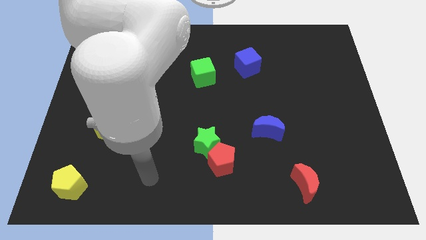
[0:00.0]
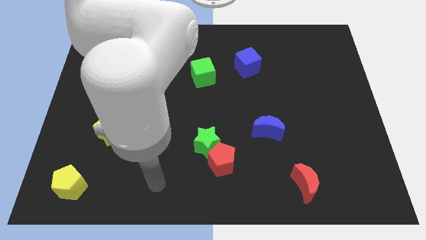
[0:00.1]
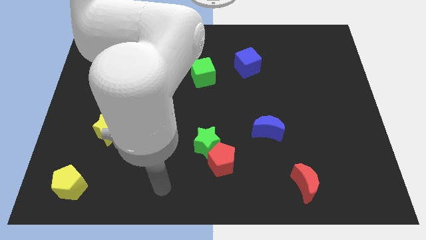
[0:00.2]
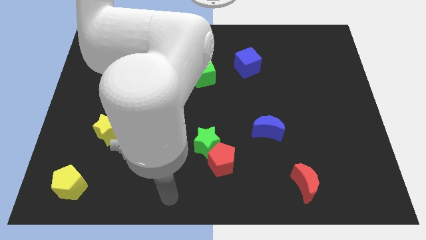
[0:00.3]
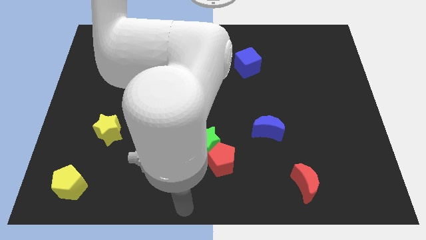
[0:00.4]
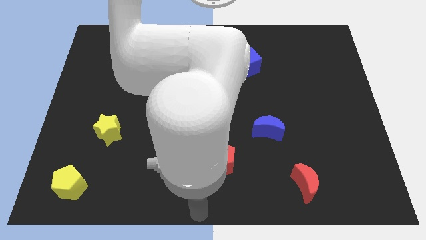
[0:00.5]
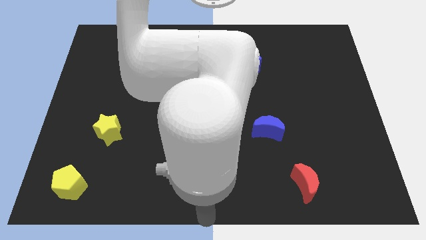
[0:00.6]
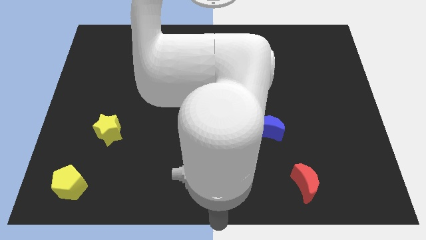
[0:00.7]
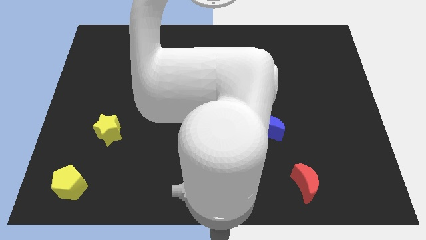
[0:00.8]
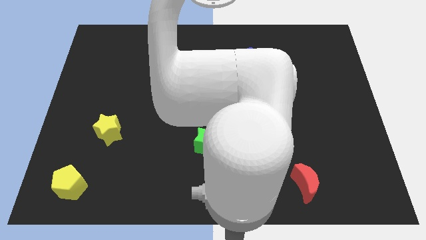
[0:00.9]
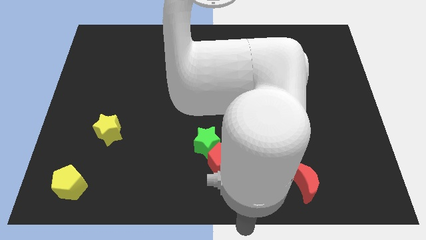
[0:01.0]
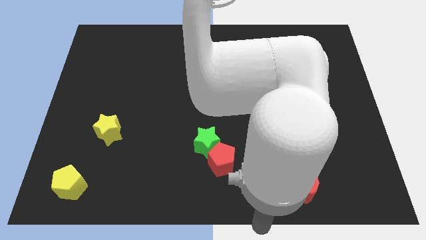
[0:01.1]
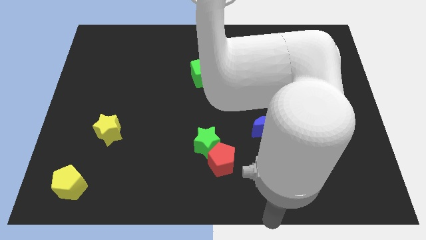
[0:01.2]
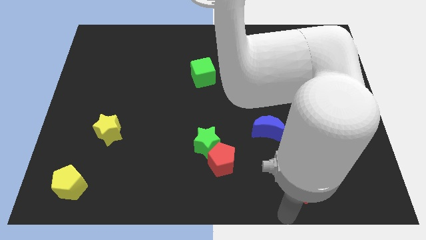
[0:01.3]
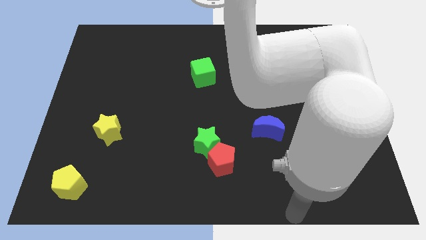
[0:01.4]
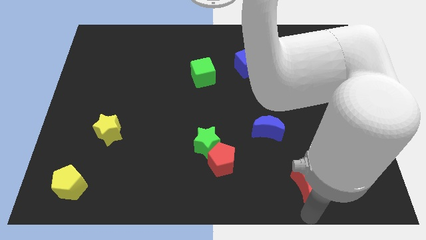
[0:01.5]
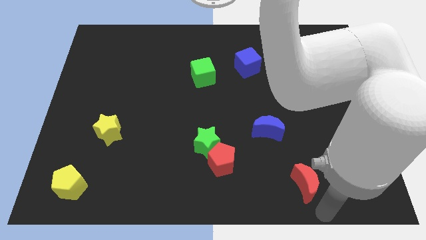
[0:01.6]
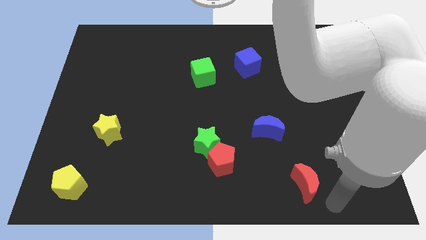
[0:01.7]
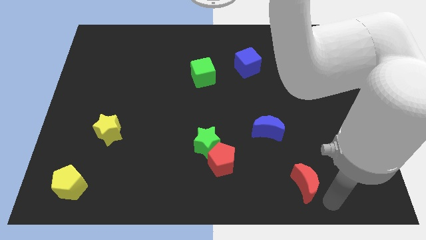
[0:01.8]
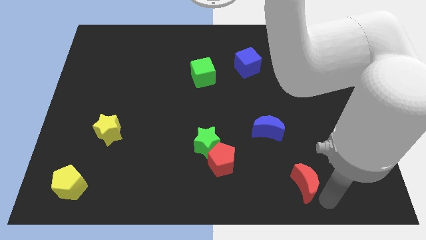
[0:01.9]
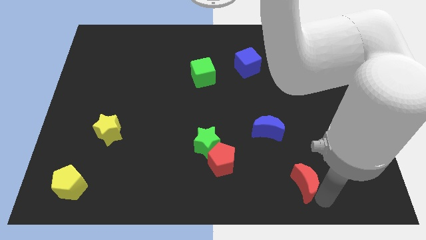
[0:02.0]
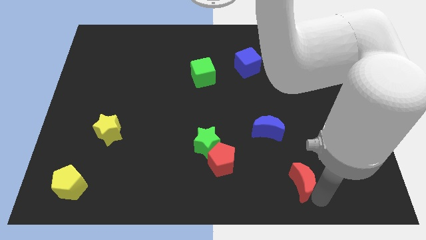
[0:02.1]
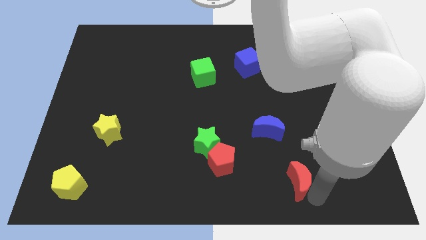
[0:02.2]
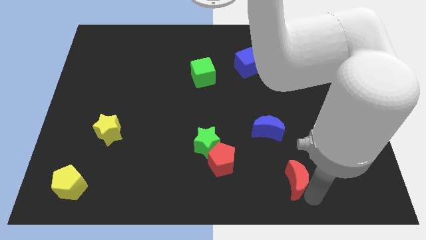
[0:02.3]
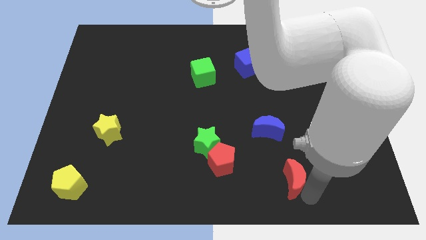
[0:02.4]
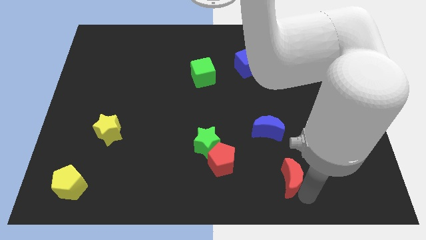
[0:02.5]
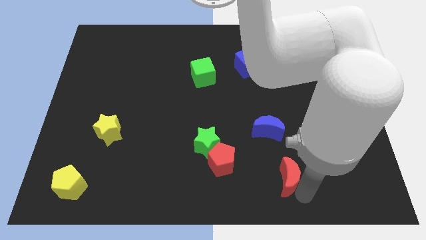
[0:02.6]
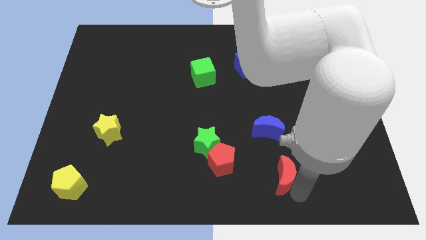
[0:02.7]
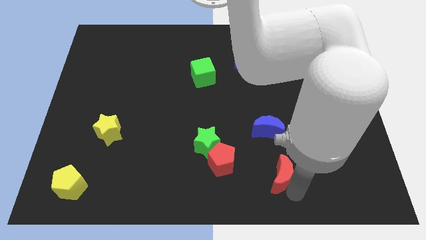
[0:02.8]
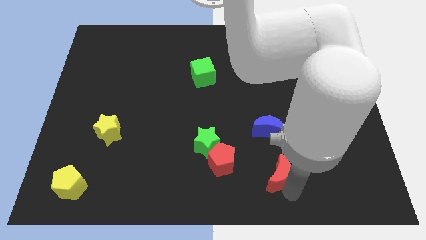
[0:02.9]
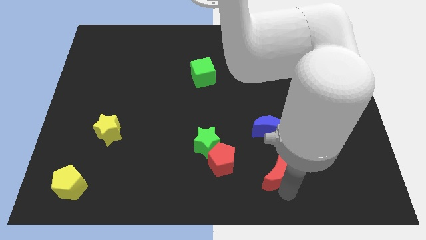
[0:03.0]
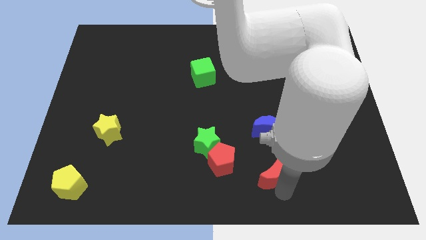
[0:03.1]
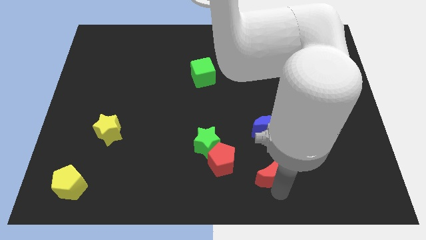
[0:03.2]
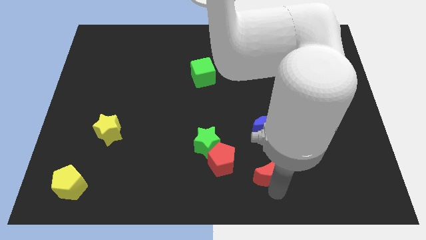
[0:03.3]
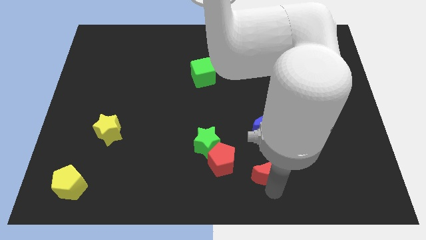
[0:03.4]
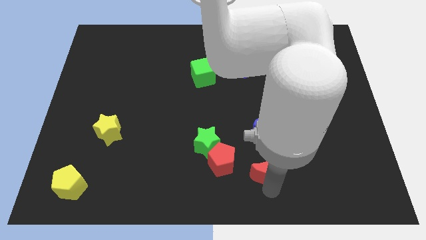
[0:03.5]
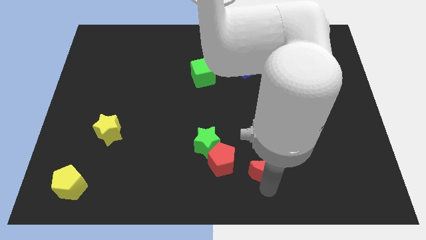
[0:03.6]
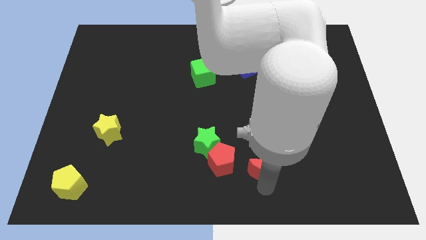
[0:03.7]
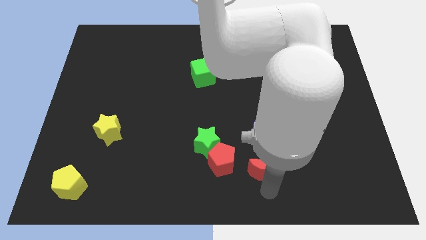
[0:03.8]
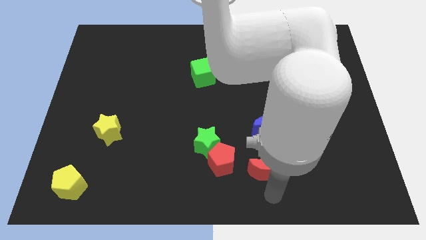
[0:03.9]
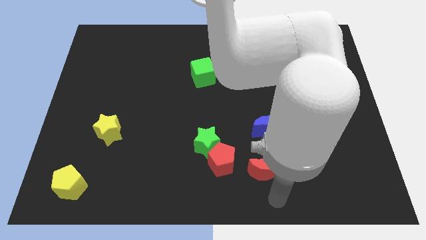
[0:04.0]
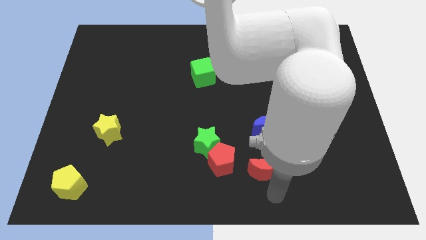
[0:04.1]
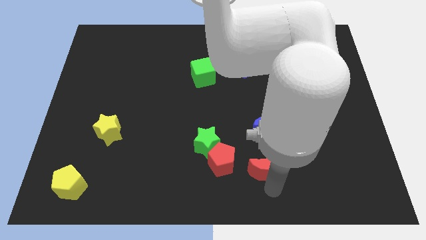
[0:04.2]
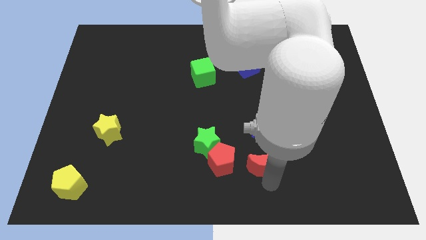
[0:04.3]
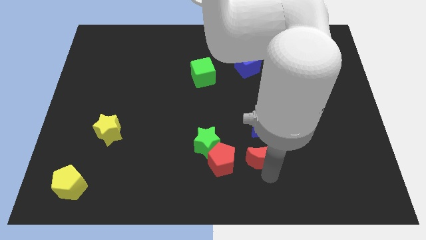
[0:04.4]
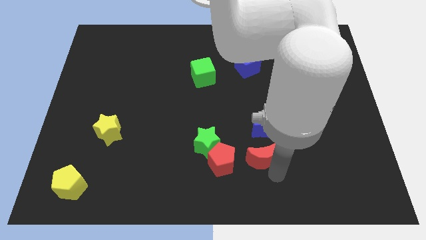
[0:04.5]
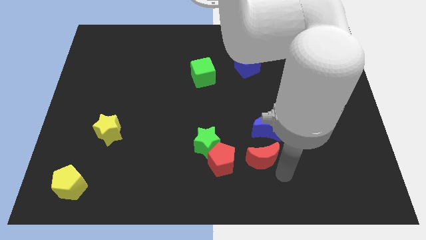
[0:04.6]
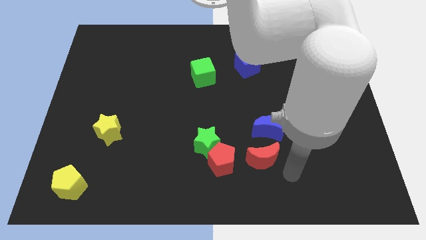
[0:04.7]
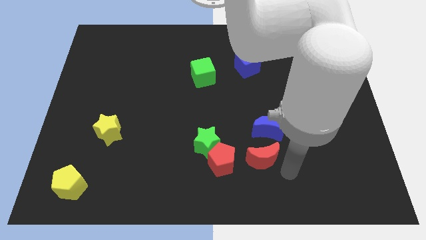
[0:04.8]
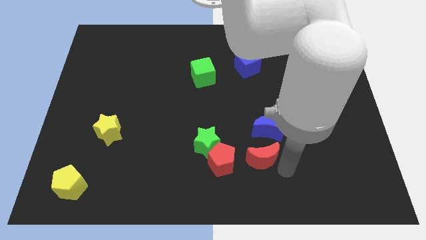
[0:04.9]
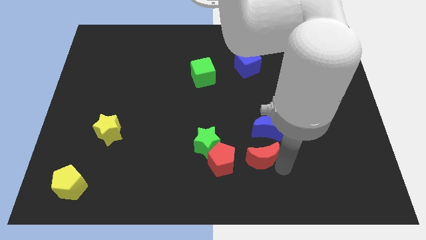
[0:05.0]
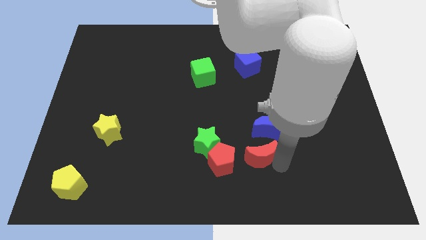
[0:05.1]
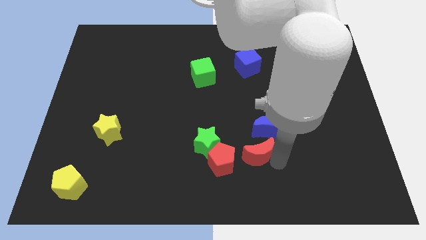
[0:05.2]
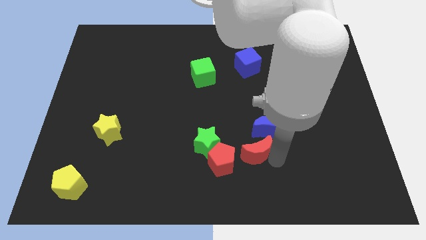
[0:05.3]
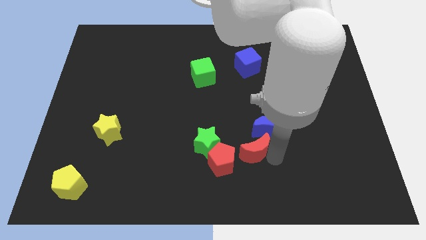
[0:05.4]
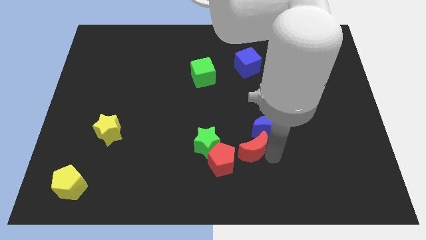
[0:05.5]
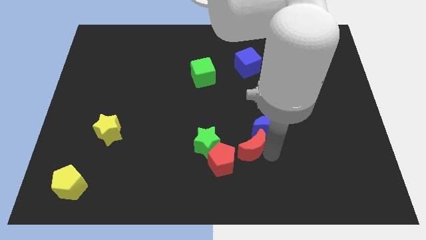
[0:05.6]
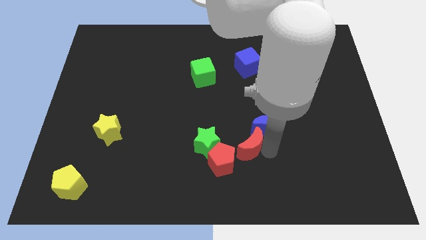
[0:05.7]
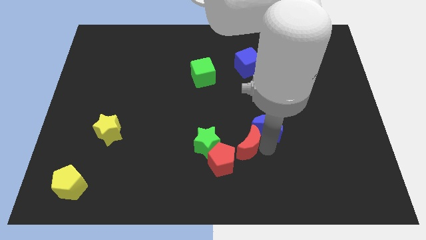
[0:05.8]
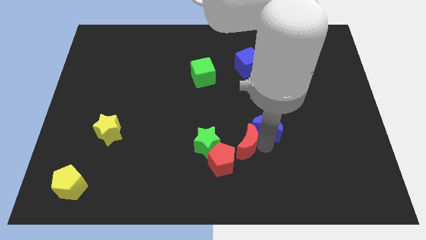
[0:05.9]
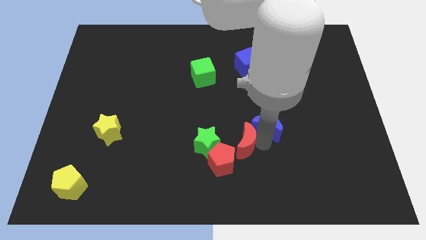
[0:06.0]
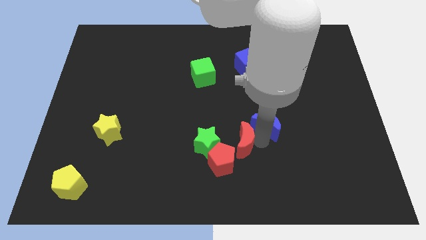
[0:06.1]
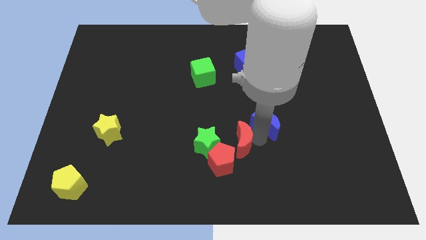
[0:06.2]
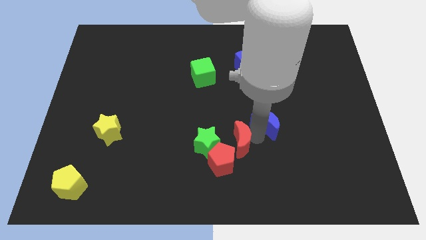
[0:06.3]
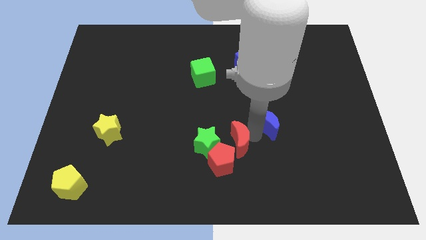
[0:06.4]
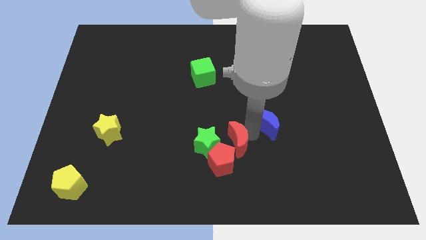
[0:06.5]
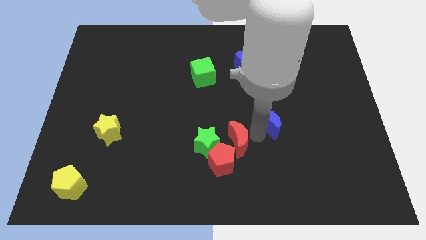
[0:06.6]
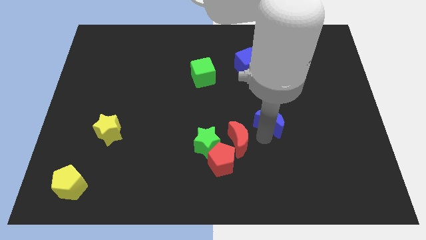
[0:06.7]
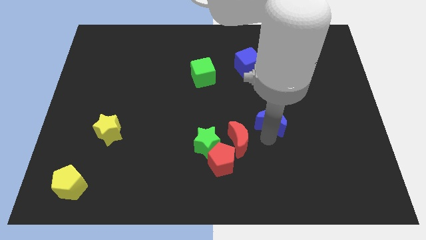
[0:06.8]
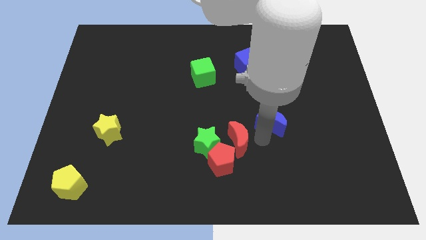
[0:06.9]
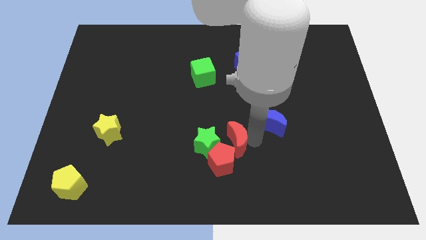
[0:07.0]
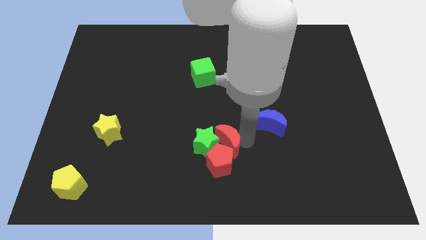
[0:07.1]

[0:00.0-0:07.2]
put the red moon next to the green star

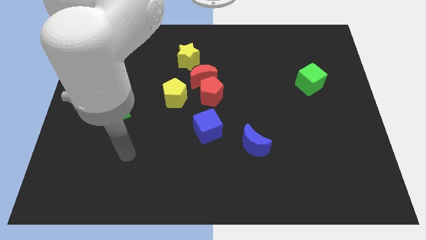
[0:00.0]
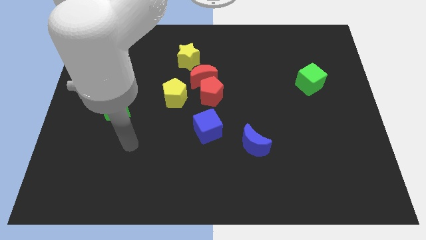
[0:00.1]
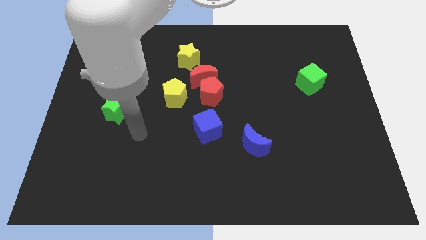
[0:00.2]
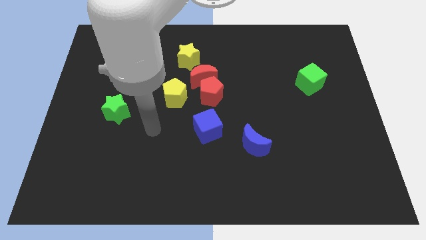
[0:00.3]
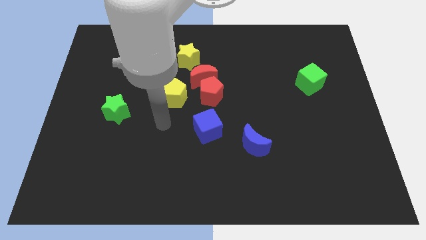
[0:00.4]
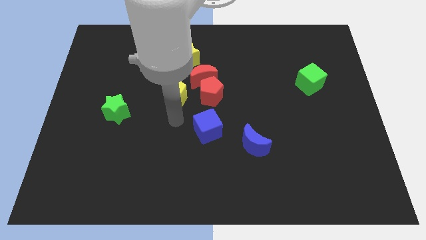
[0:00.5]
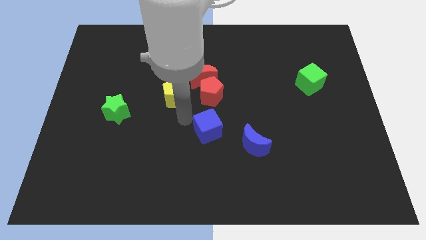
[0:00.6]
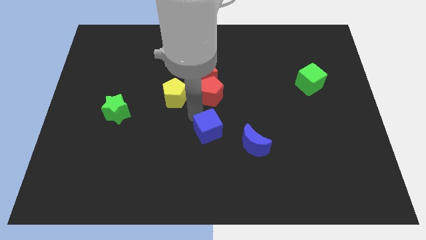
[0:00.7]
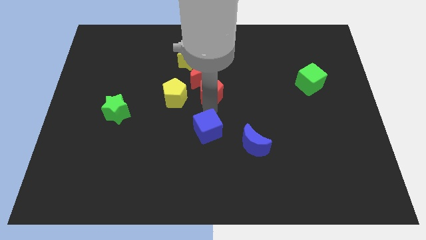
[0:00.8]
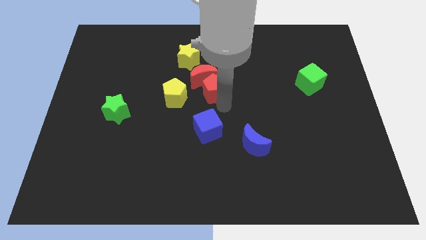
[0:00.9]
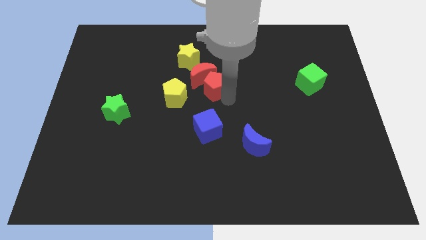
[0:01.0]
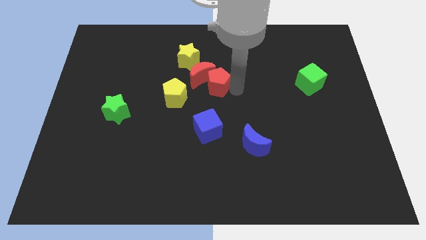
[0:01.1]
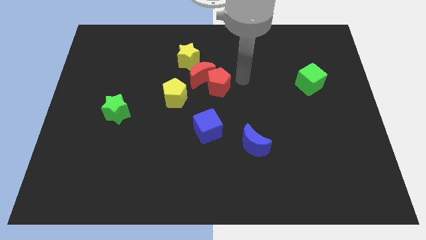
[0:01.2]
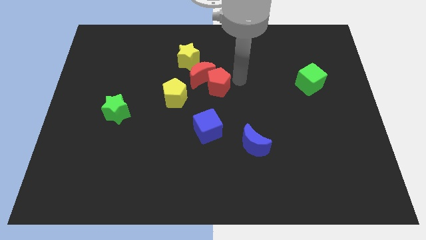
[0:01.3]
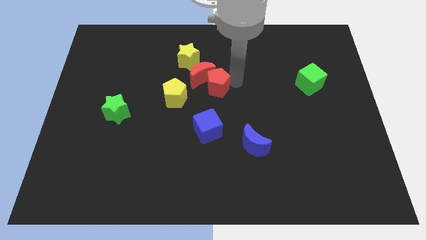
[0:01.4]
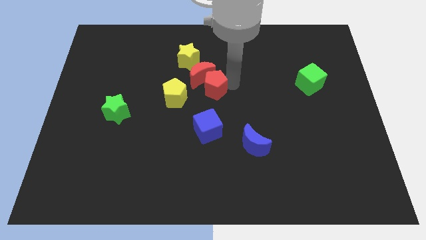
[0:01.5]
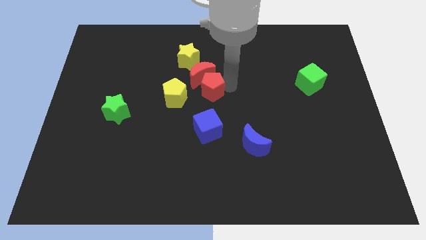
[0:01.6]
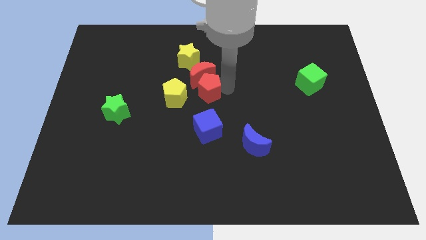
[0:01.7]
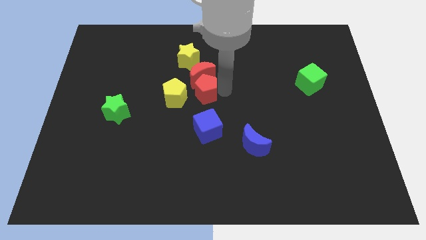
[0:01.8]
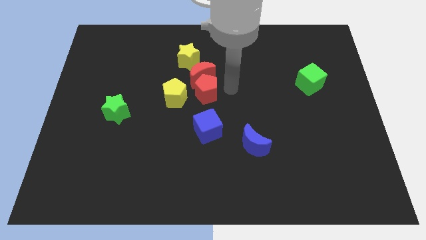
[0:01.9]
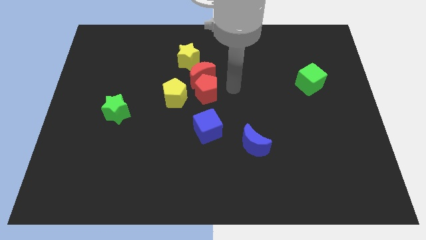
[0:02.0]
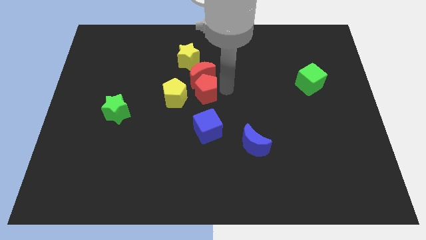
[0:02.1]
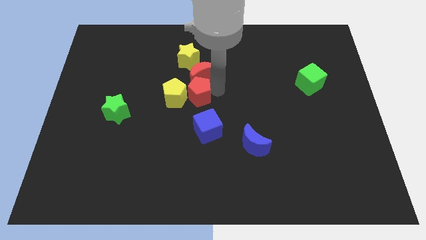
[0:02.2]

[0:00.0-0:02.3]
push the red pentagon towards the yellow pentagon
